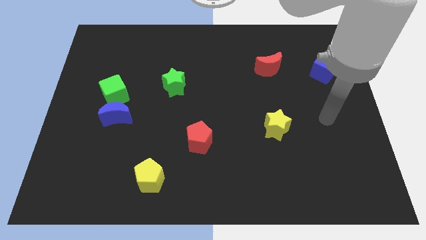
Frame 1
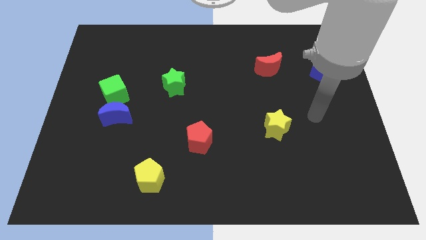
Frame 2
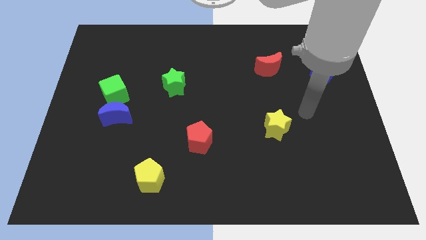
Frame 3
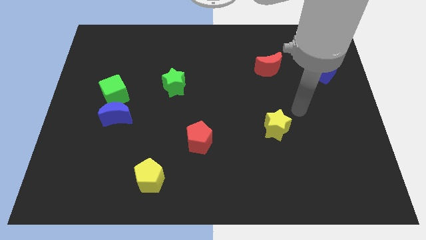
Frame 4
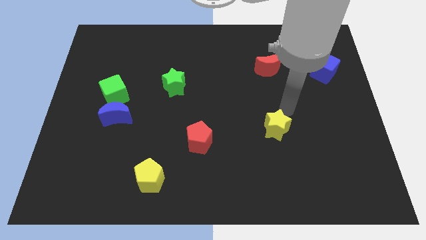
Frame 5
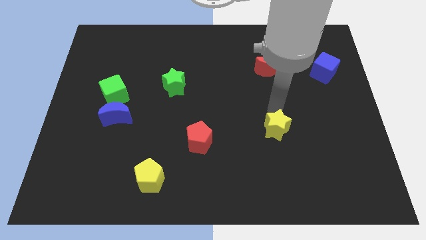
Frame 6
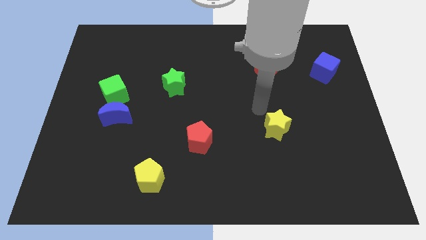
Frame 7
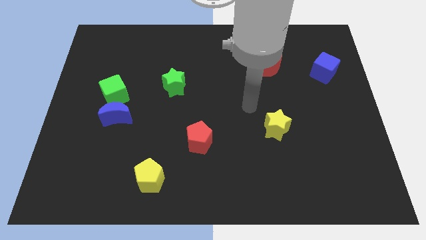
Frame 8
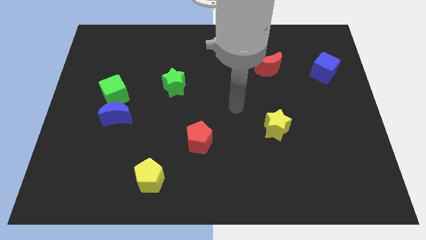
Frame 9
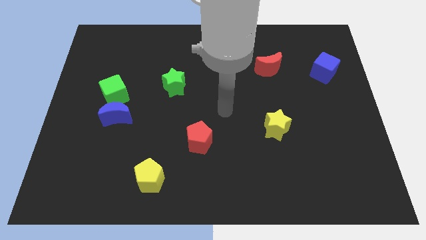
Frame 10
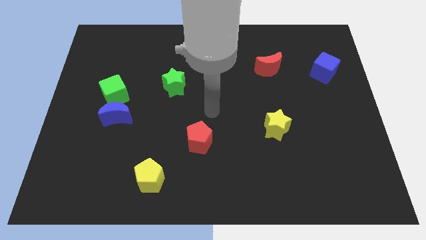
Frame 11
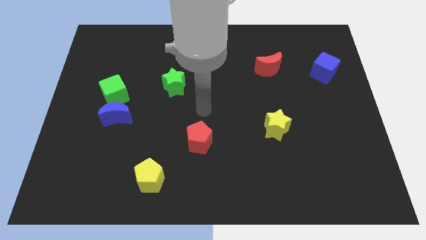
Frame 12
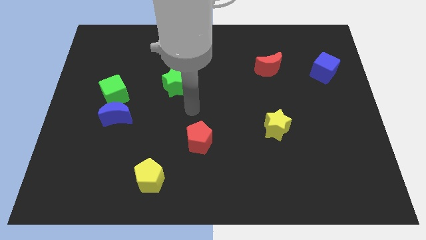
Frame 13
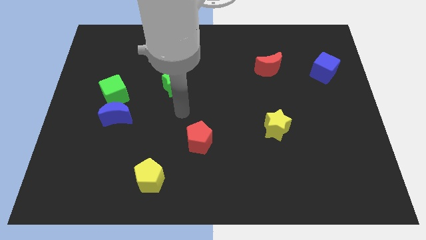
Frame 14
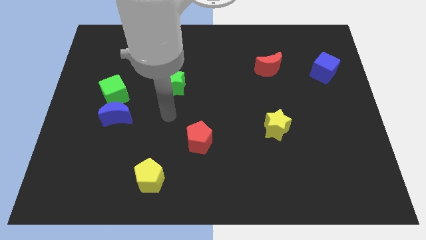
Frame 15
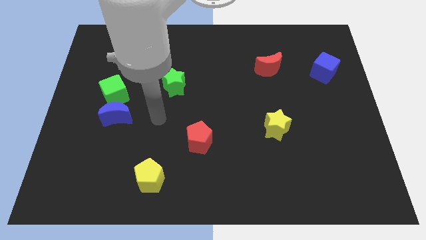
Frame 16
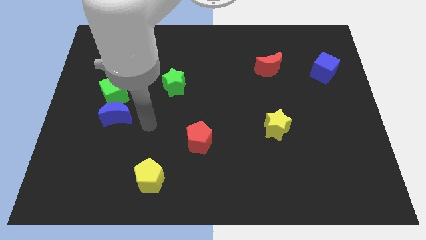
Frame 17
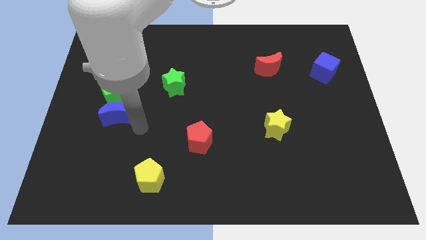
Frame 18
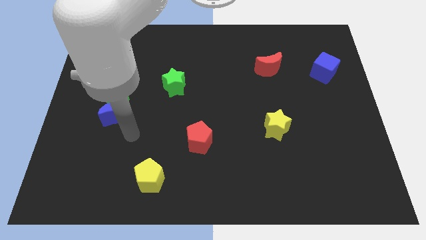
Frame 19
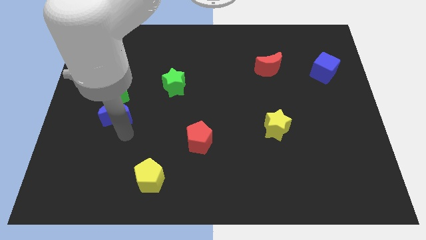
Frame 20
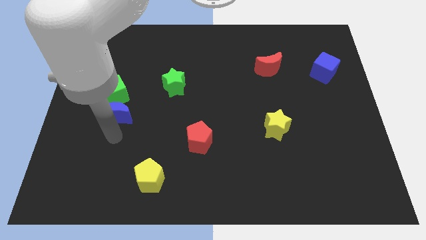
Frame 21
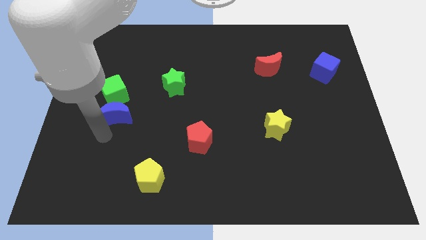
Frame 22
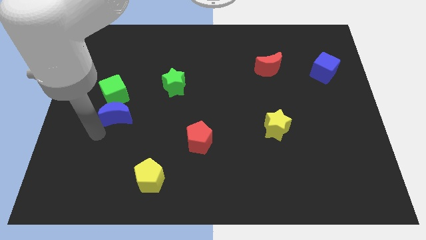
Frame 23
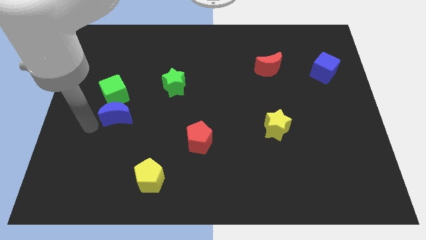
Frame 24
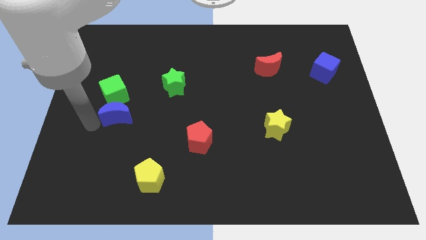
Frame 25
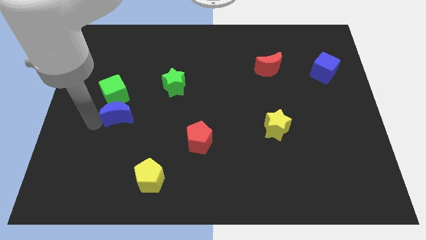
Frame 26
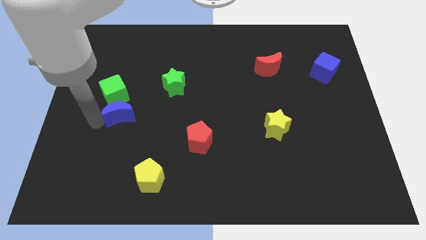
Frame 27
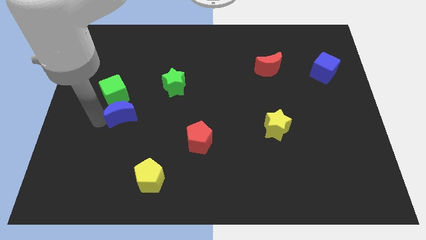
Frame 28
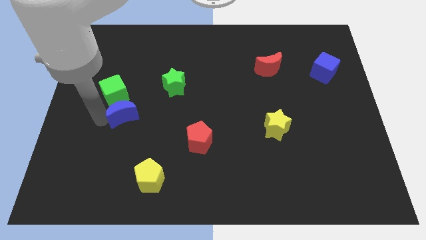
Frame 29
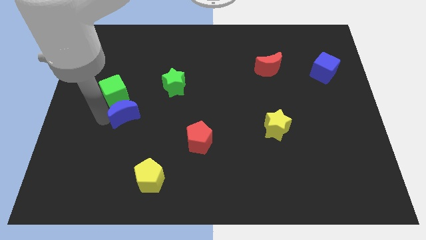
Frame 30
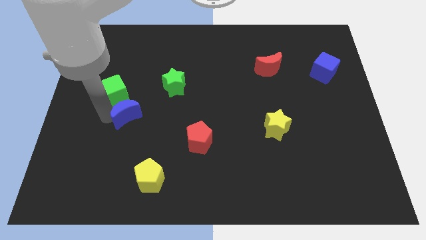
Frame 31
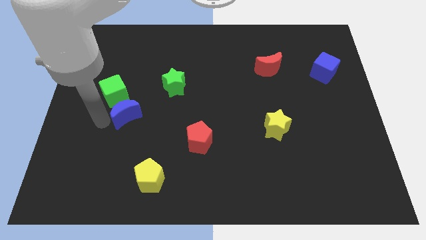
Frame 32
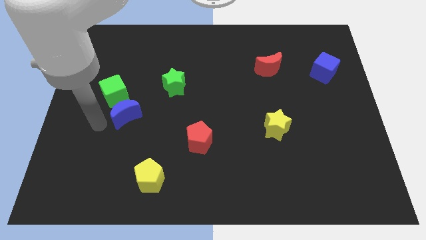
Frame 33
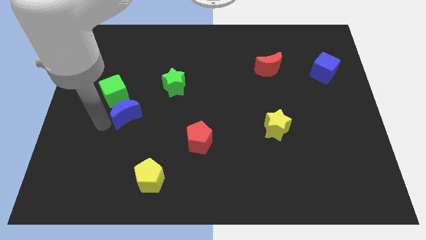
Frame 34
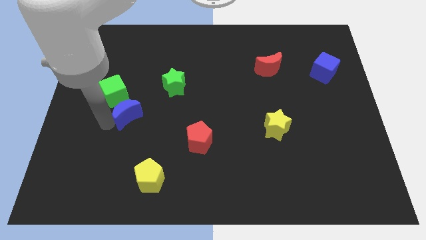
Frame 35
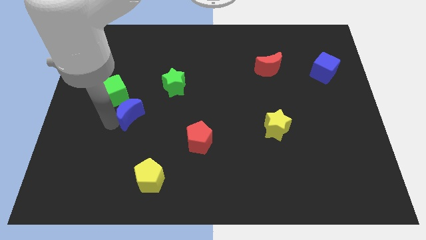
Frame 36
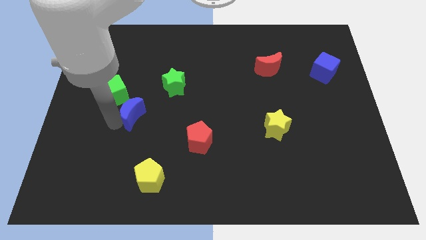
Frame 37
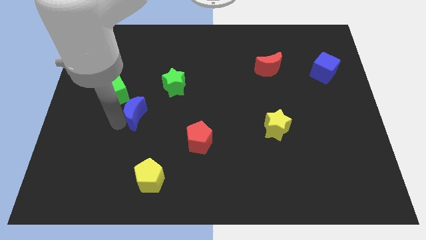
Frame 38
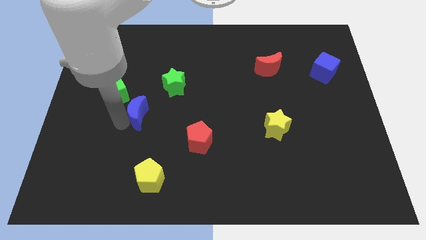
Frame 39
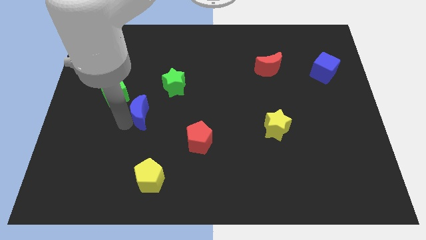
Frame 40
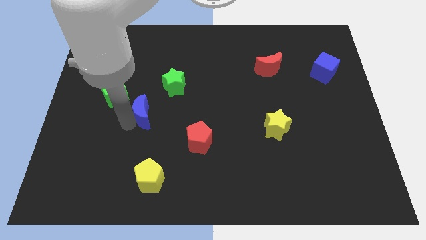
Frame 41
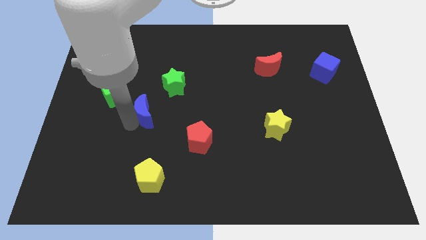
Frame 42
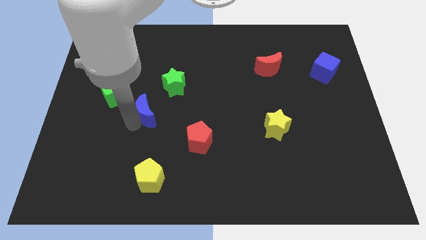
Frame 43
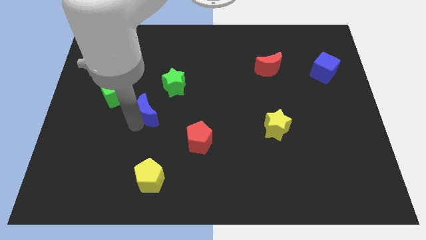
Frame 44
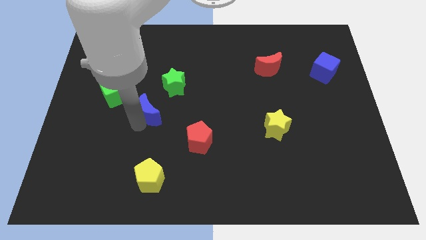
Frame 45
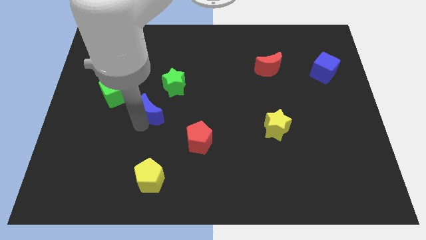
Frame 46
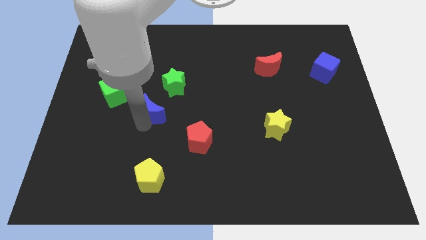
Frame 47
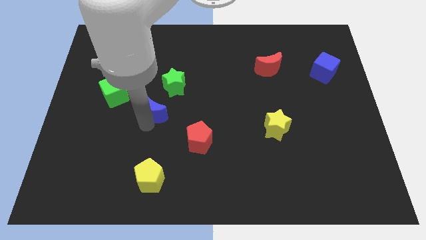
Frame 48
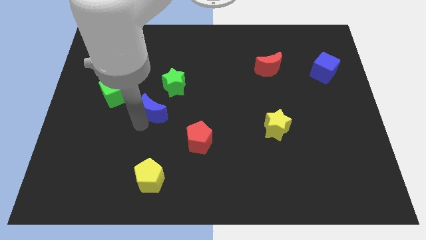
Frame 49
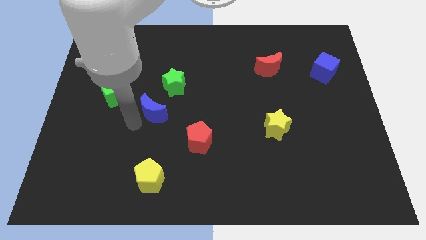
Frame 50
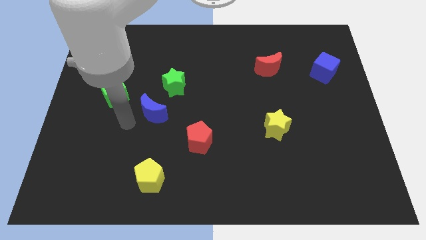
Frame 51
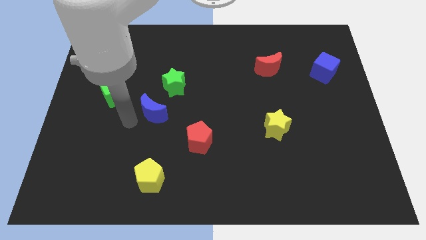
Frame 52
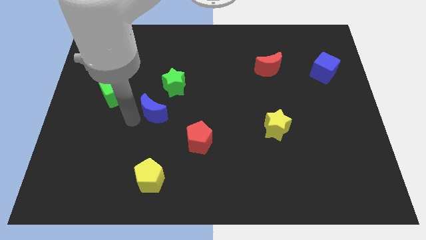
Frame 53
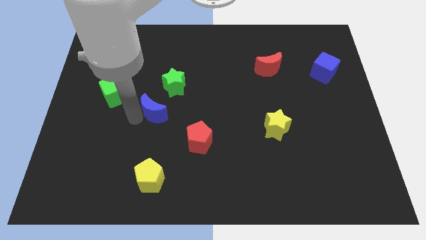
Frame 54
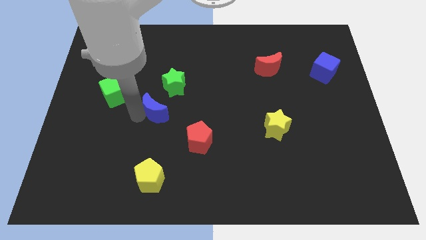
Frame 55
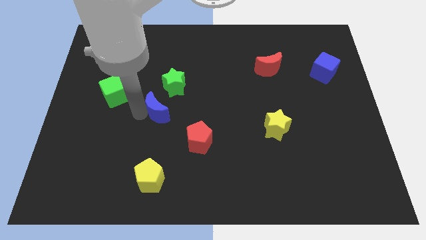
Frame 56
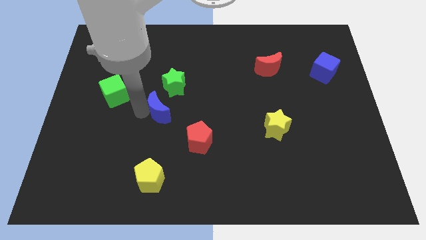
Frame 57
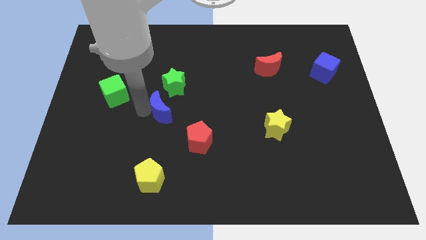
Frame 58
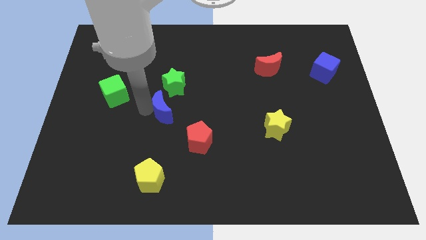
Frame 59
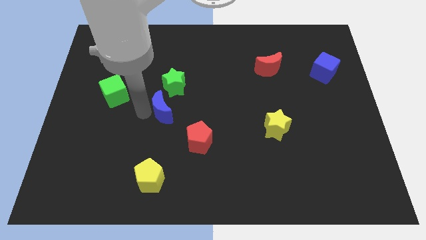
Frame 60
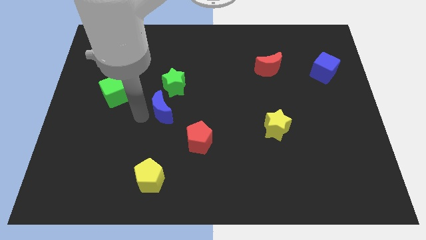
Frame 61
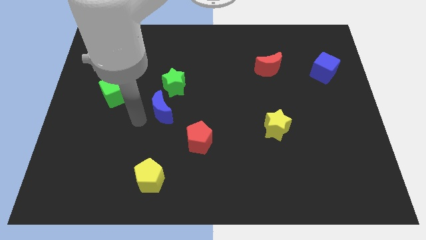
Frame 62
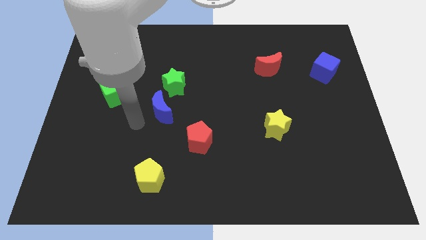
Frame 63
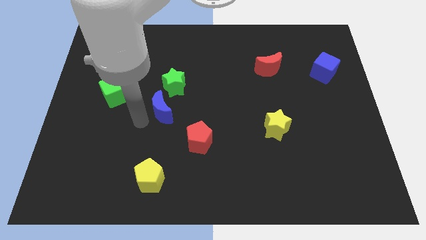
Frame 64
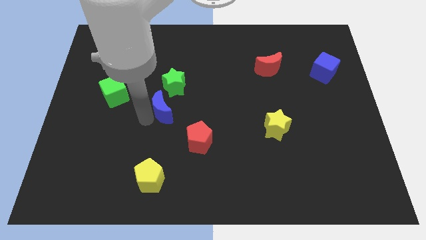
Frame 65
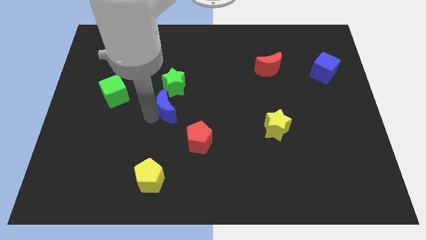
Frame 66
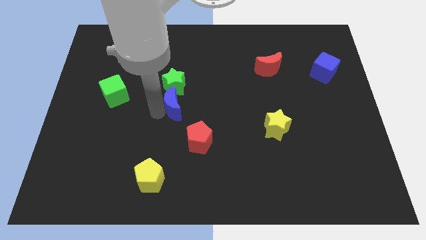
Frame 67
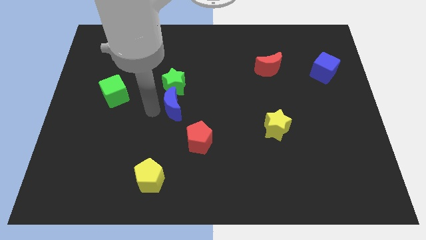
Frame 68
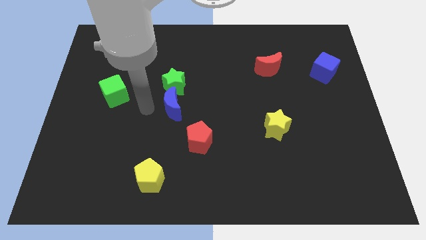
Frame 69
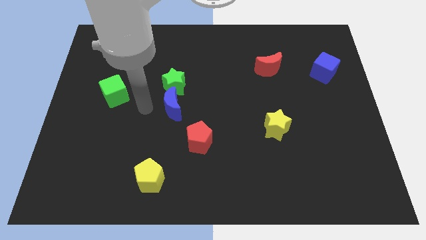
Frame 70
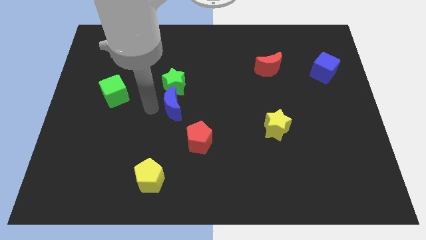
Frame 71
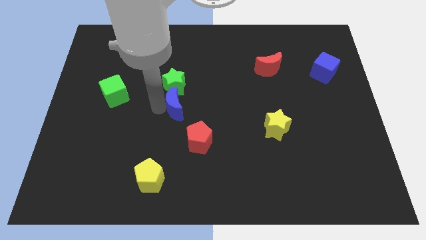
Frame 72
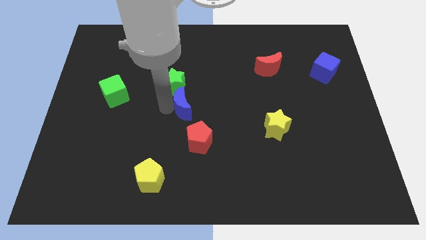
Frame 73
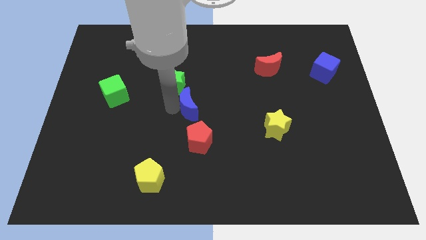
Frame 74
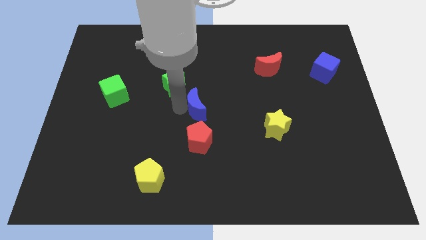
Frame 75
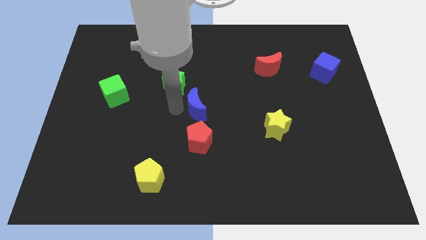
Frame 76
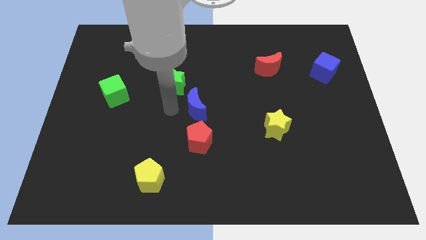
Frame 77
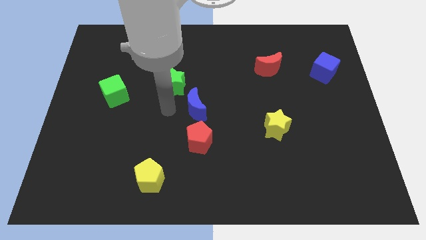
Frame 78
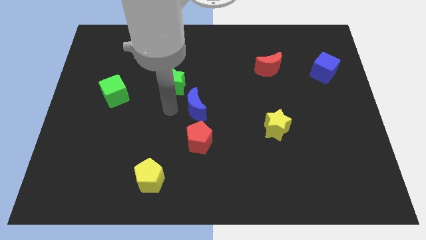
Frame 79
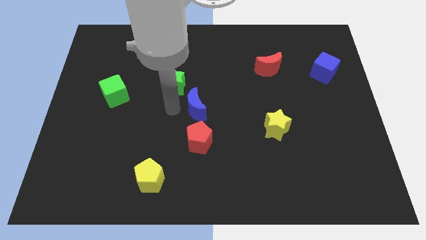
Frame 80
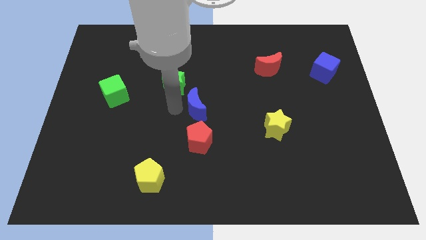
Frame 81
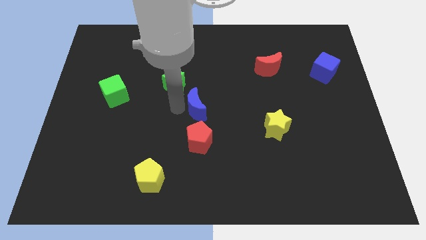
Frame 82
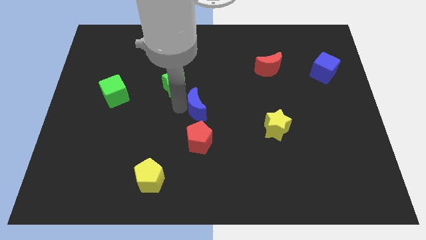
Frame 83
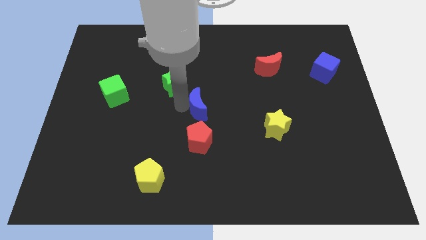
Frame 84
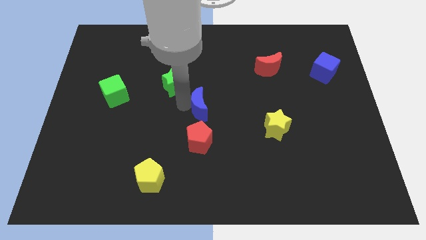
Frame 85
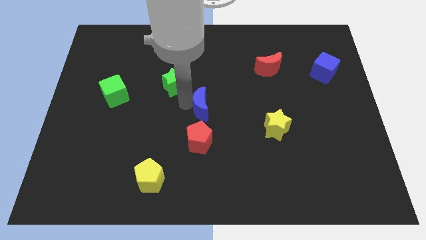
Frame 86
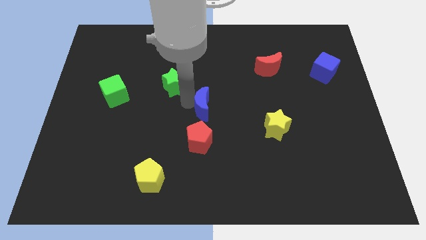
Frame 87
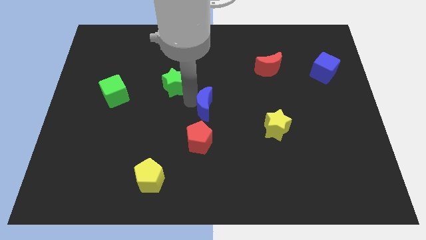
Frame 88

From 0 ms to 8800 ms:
slide the blue moon to the right
